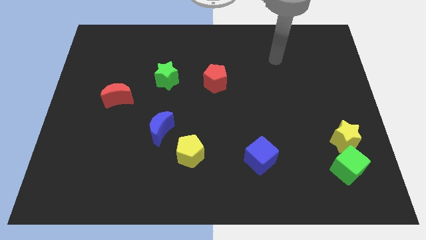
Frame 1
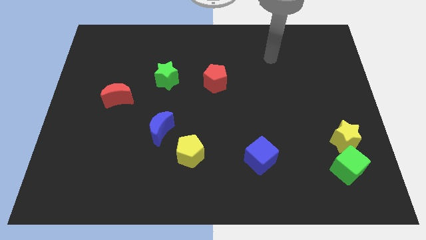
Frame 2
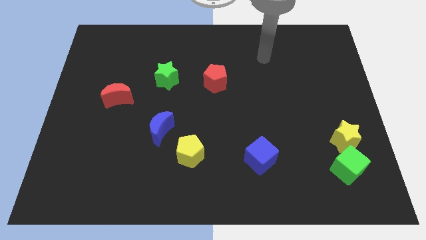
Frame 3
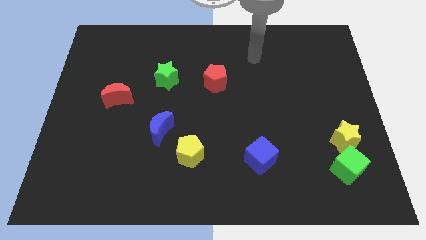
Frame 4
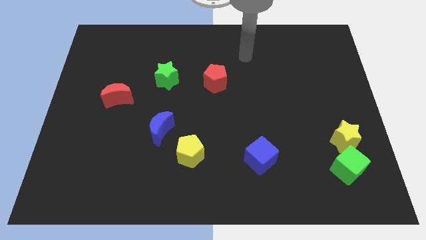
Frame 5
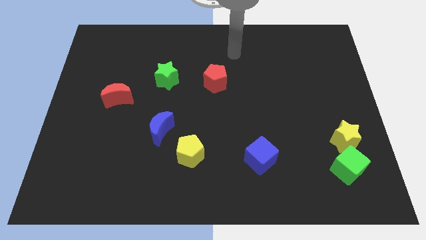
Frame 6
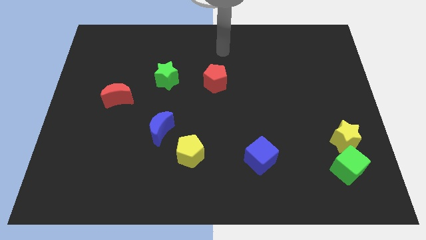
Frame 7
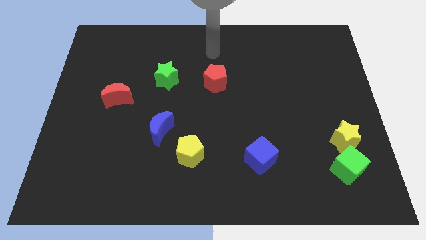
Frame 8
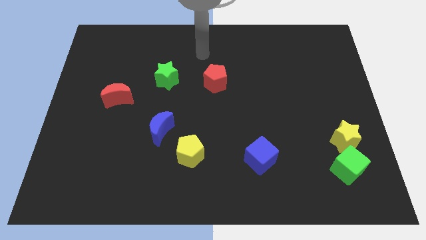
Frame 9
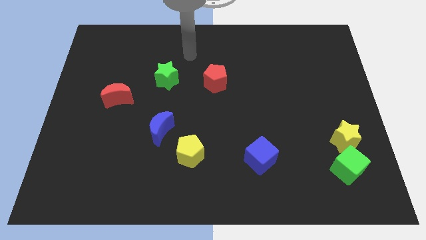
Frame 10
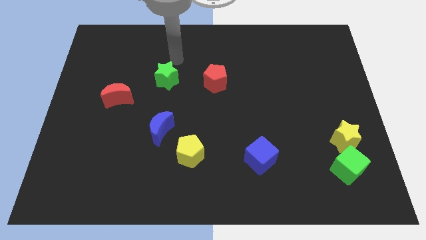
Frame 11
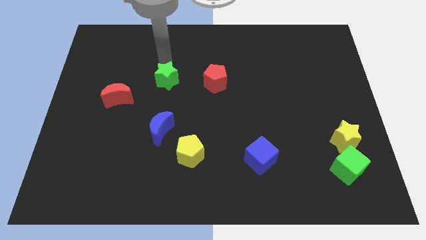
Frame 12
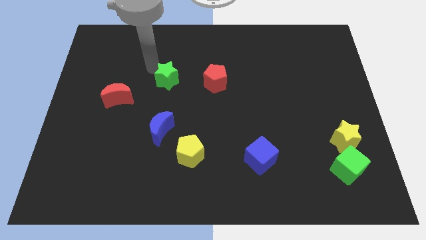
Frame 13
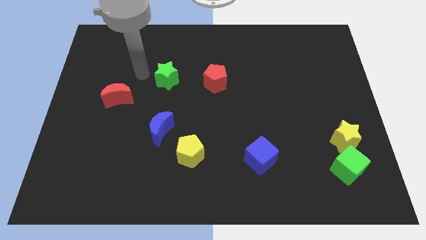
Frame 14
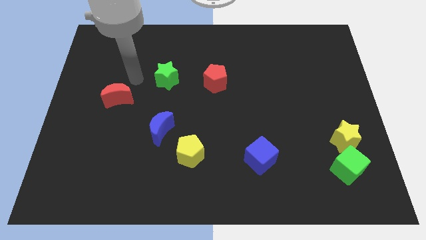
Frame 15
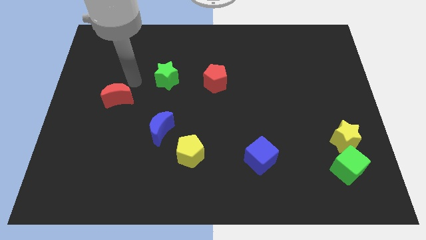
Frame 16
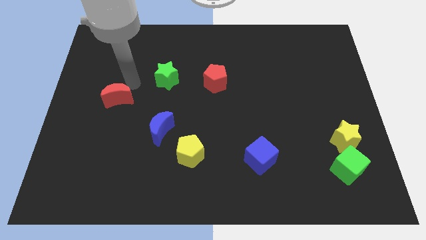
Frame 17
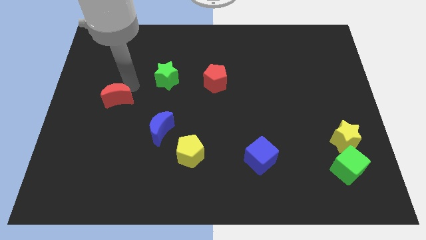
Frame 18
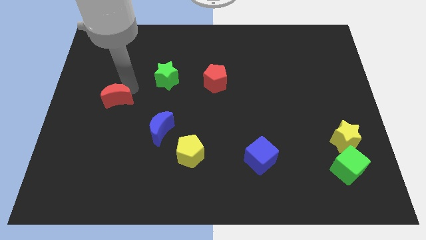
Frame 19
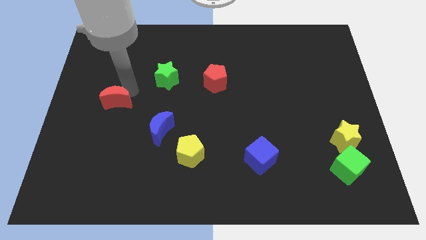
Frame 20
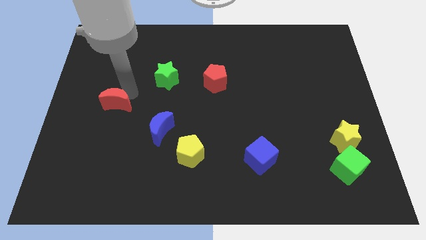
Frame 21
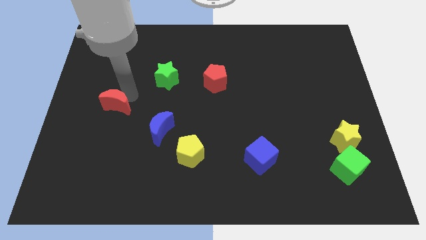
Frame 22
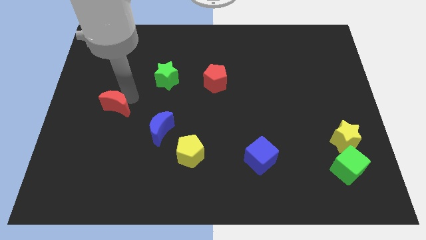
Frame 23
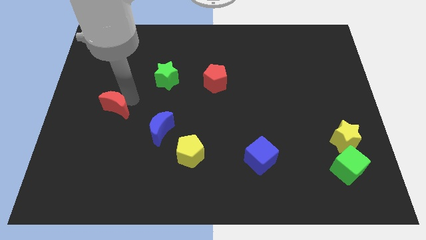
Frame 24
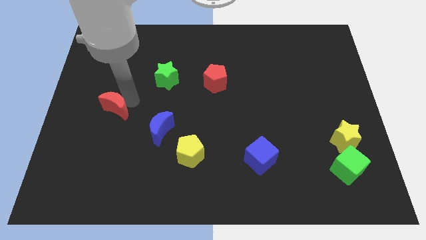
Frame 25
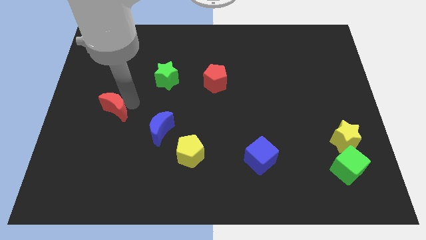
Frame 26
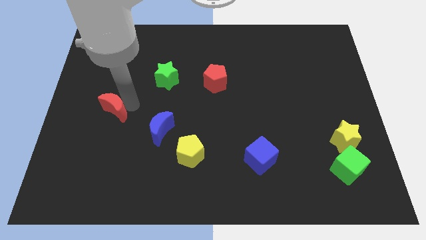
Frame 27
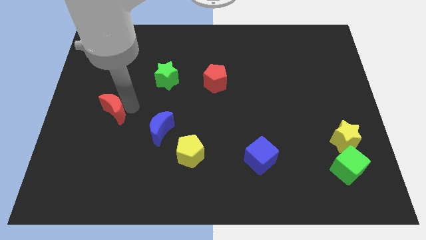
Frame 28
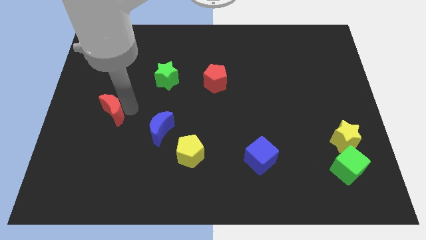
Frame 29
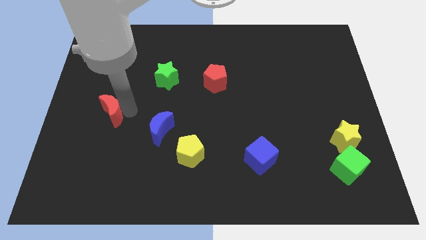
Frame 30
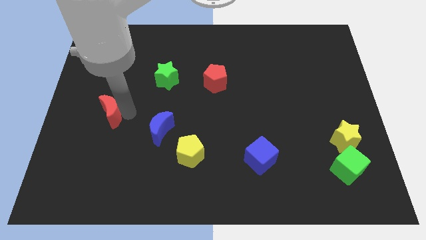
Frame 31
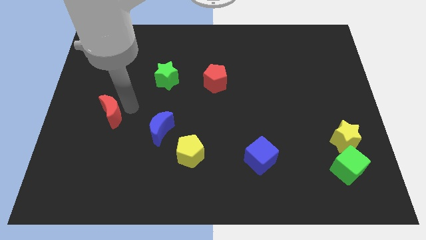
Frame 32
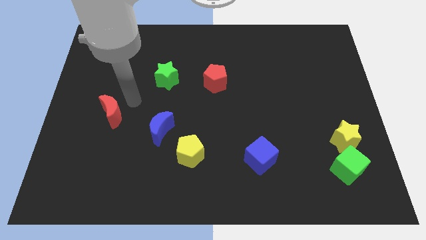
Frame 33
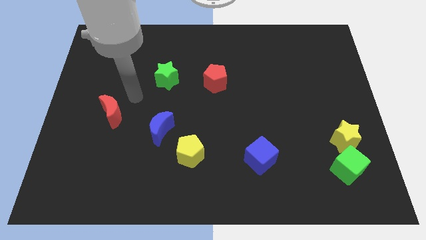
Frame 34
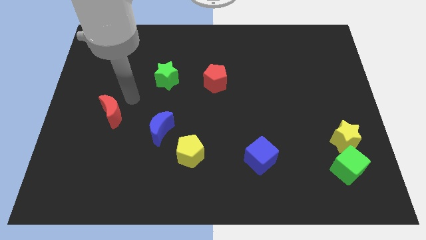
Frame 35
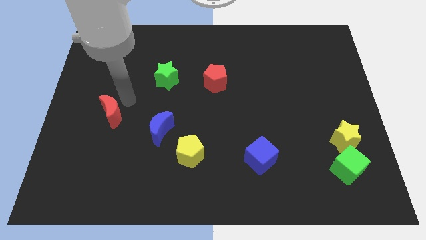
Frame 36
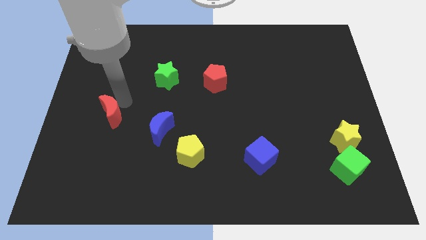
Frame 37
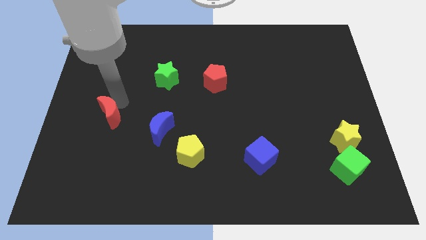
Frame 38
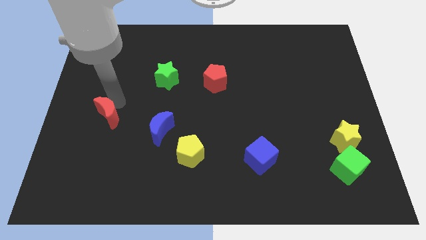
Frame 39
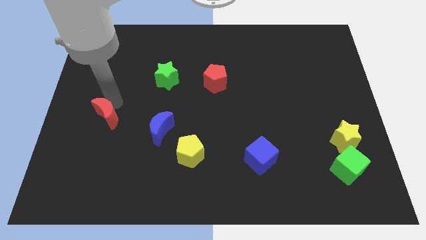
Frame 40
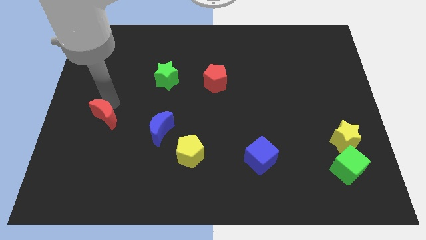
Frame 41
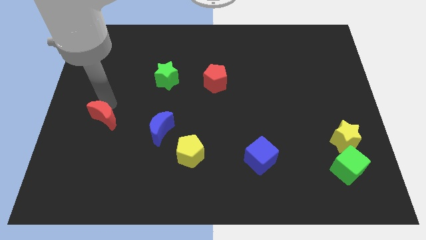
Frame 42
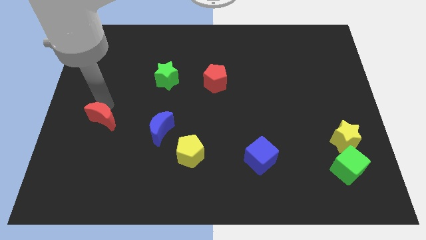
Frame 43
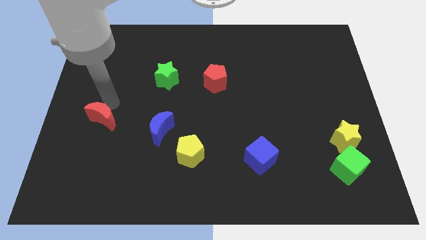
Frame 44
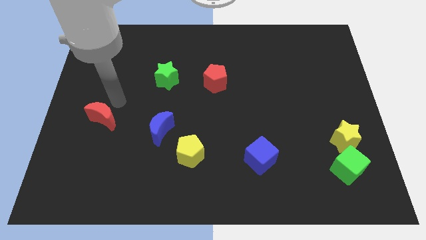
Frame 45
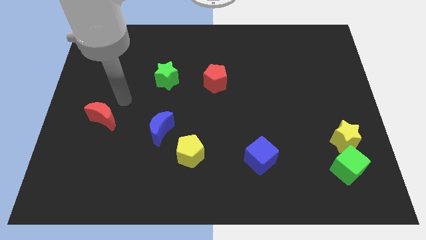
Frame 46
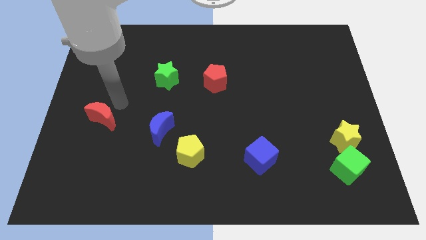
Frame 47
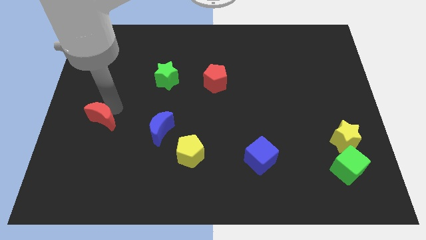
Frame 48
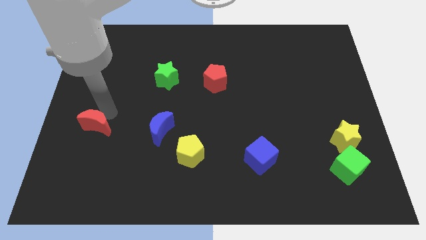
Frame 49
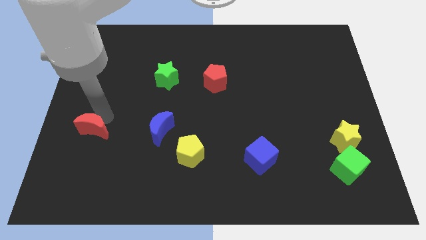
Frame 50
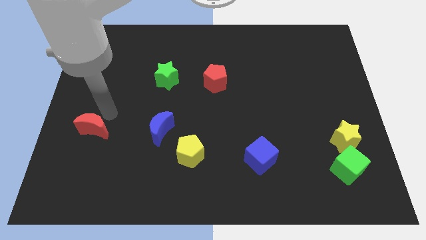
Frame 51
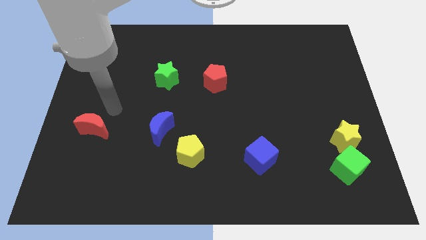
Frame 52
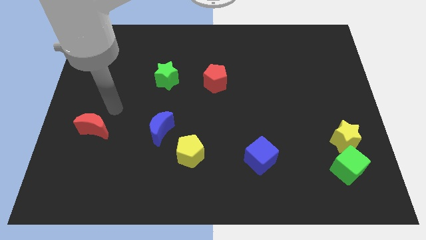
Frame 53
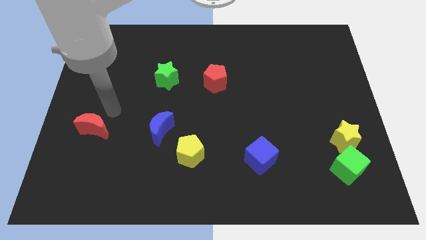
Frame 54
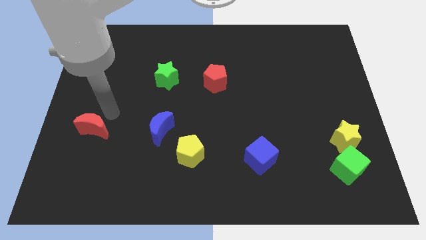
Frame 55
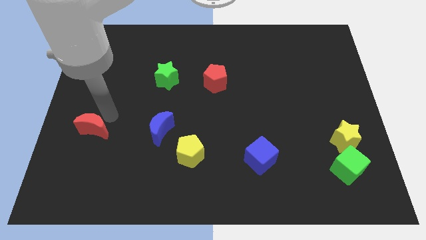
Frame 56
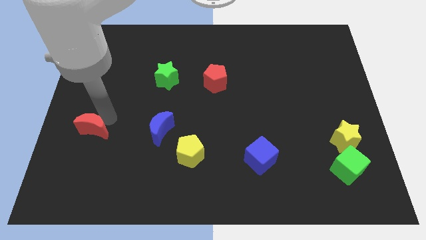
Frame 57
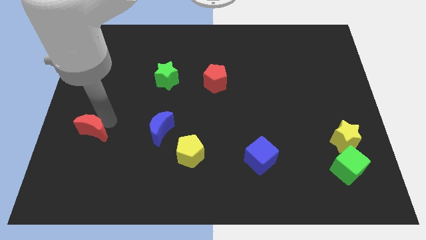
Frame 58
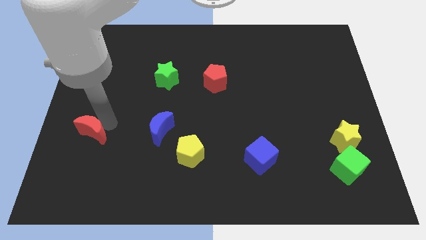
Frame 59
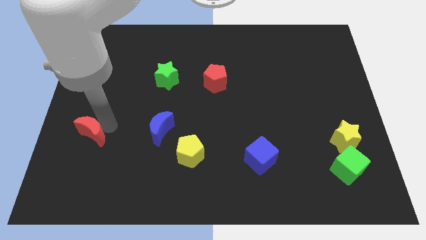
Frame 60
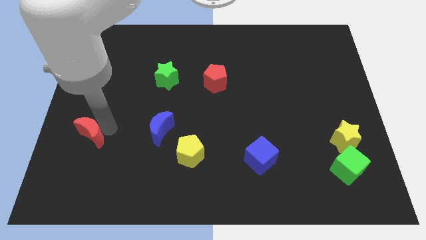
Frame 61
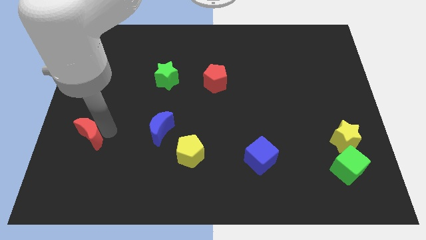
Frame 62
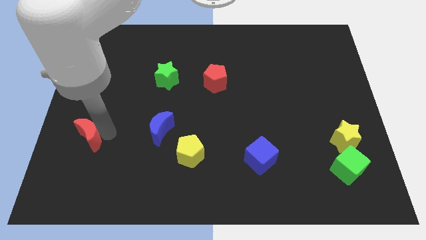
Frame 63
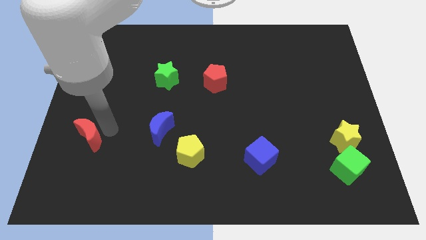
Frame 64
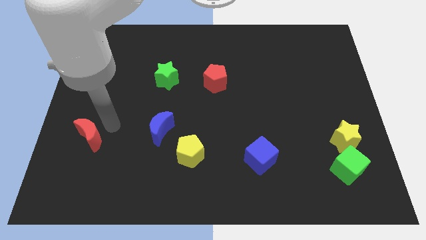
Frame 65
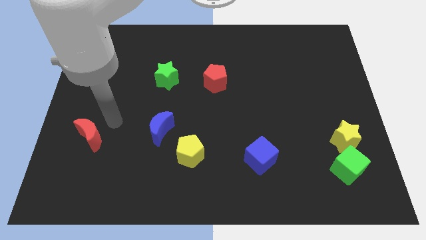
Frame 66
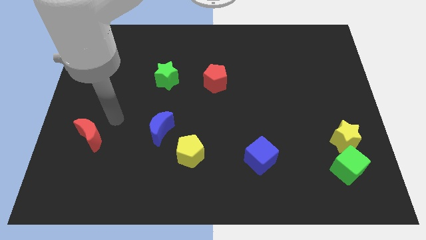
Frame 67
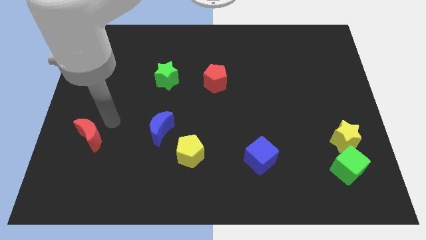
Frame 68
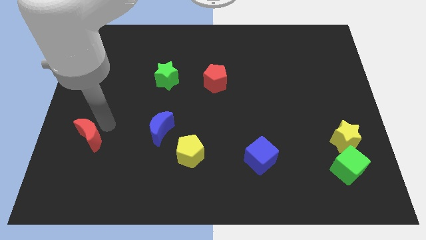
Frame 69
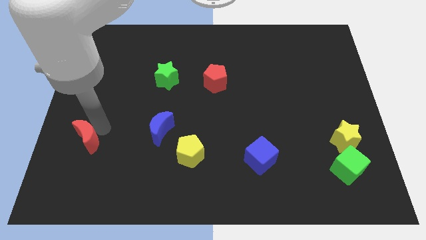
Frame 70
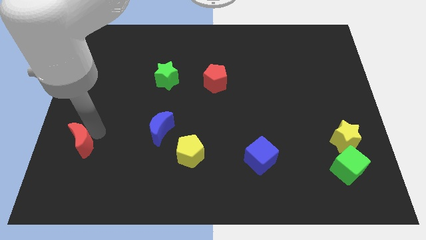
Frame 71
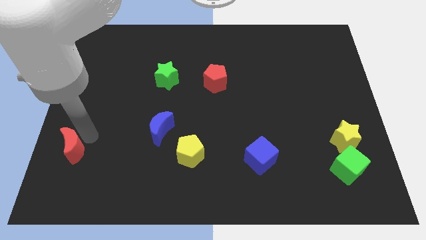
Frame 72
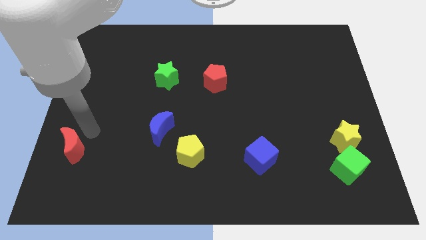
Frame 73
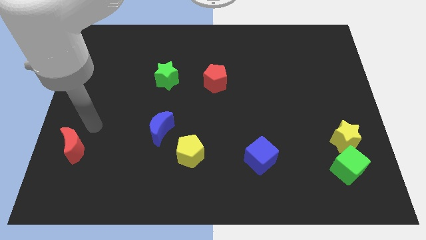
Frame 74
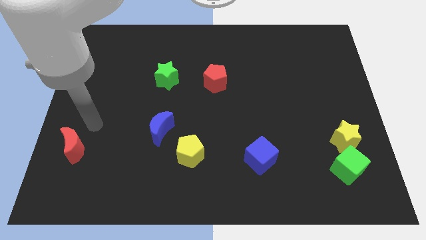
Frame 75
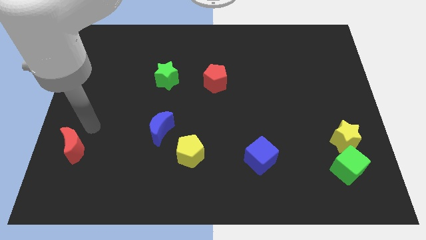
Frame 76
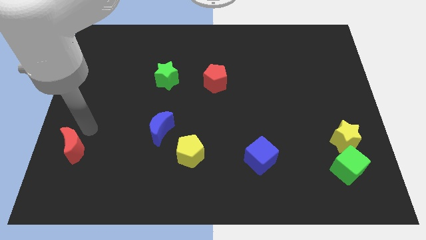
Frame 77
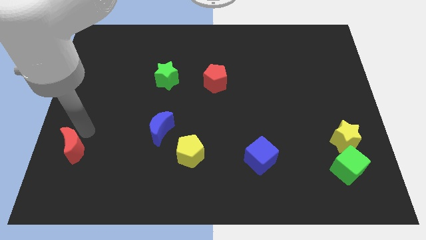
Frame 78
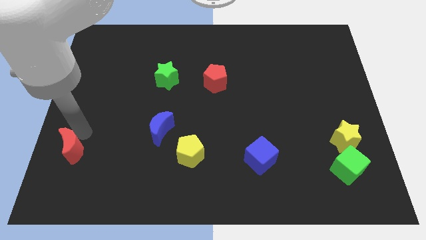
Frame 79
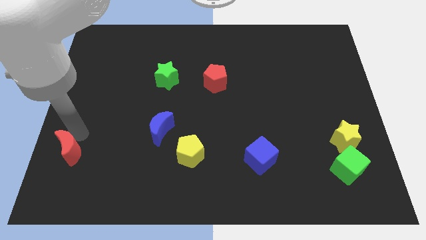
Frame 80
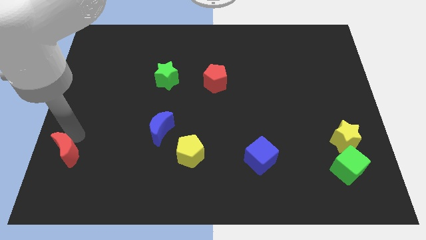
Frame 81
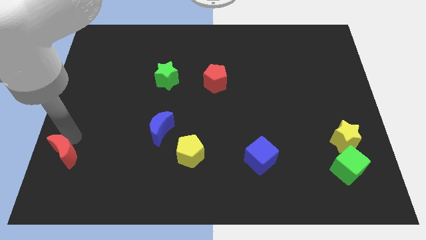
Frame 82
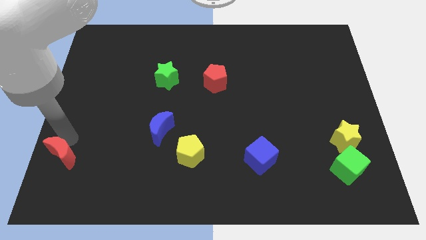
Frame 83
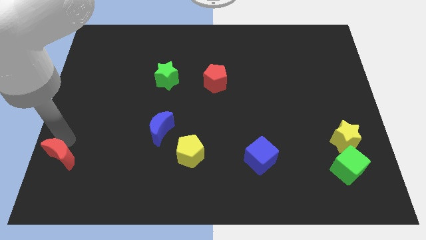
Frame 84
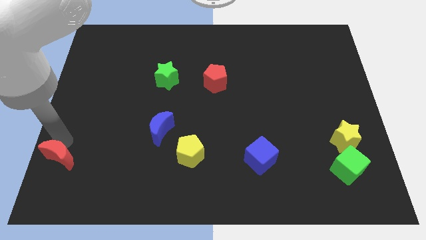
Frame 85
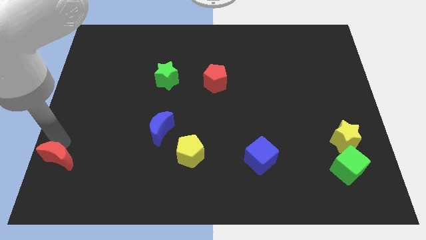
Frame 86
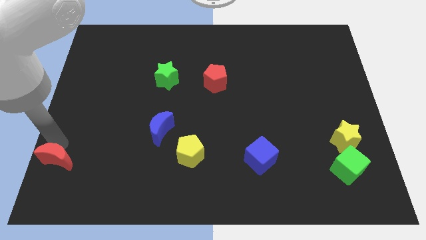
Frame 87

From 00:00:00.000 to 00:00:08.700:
move the red moon to the bottom left corner
